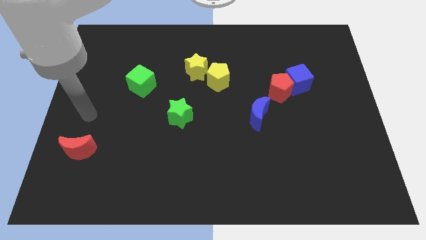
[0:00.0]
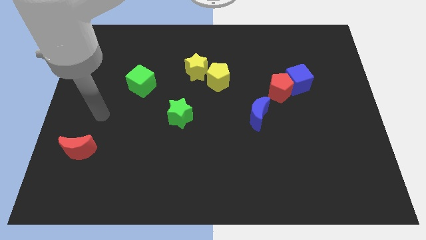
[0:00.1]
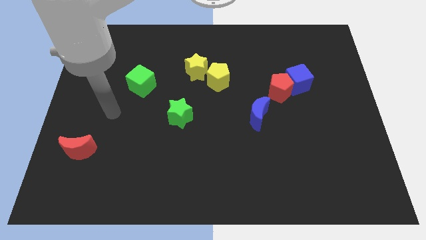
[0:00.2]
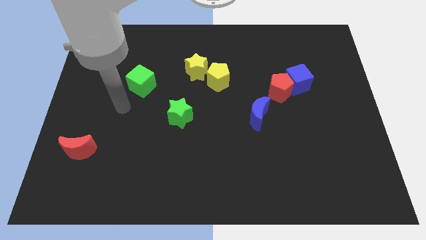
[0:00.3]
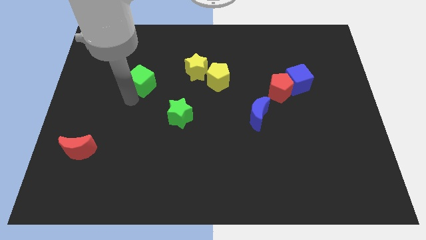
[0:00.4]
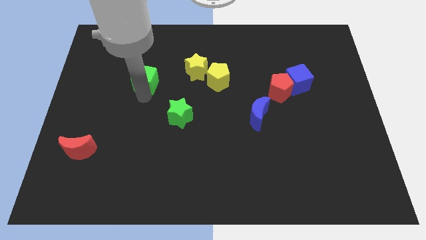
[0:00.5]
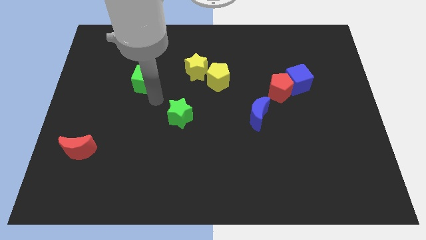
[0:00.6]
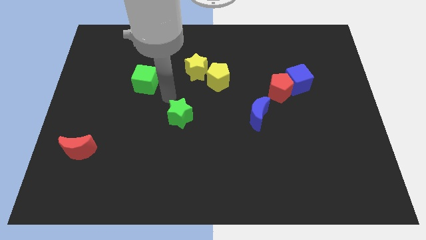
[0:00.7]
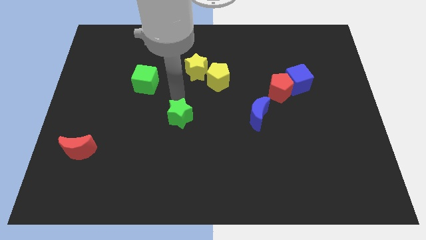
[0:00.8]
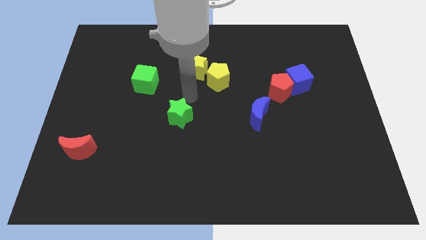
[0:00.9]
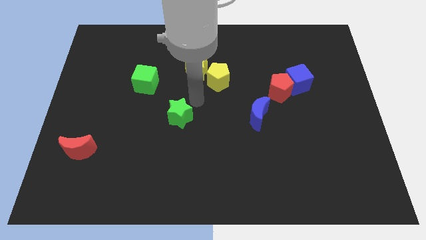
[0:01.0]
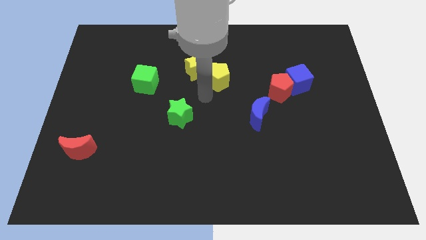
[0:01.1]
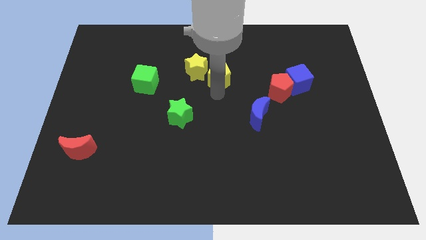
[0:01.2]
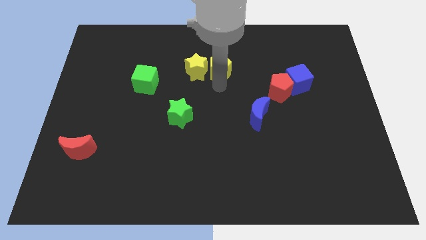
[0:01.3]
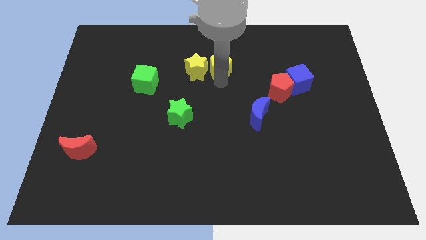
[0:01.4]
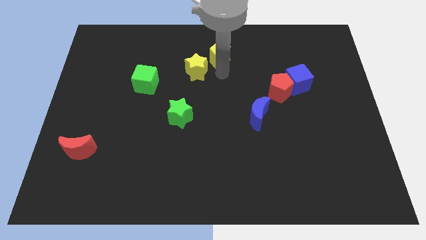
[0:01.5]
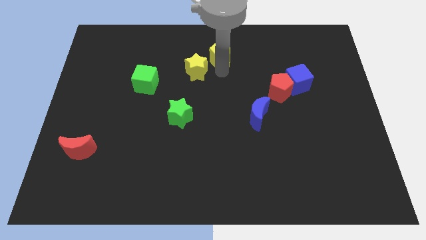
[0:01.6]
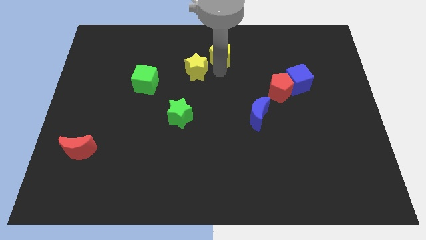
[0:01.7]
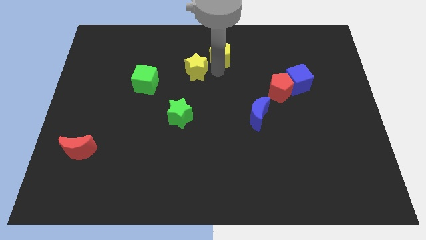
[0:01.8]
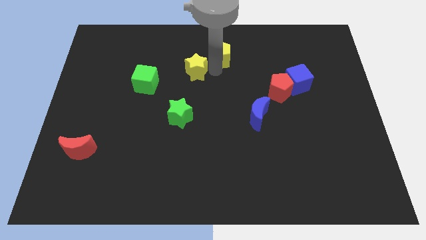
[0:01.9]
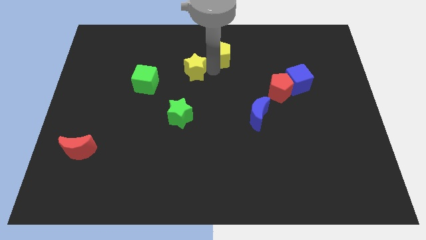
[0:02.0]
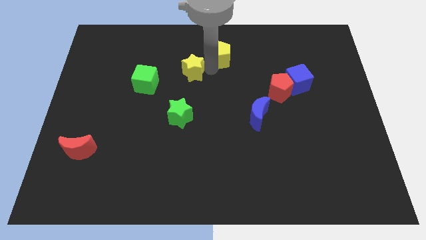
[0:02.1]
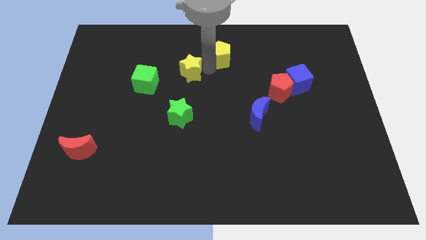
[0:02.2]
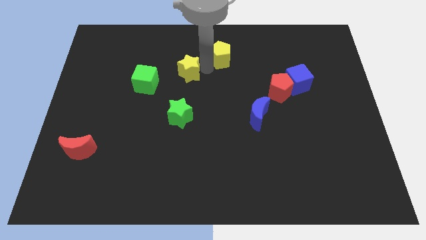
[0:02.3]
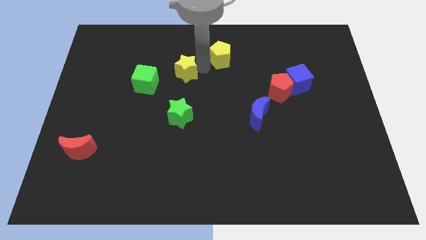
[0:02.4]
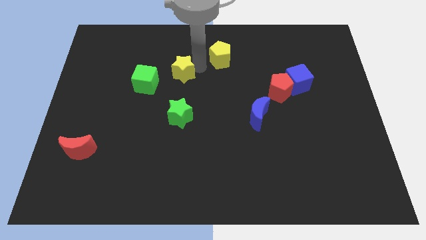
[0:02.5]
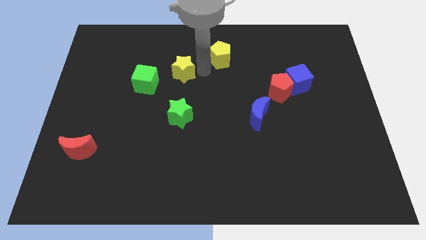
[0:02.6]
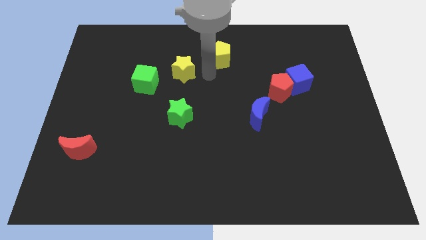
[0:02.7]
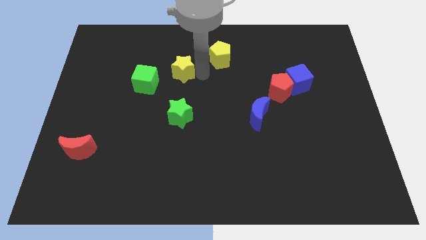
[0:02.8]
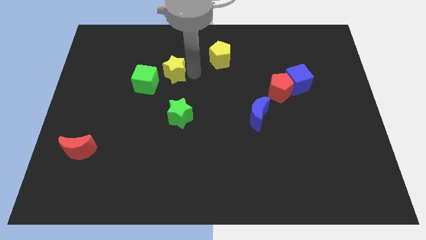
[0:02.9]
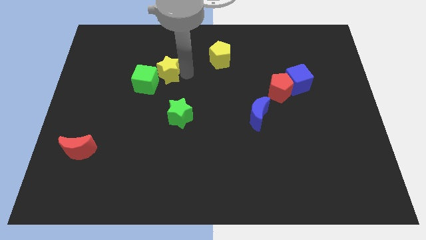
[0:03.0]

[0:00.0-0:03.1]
slide the yellow star to the left somewhat

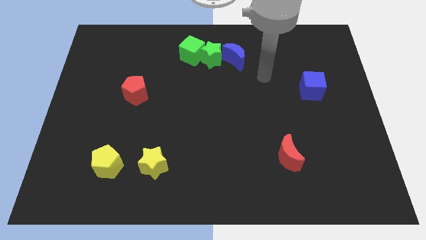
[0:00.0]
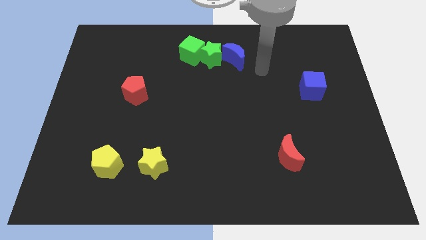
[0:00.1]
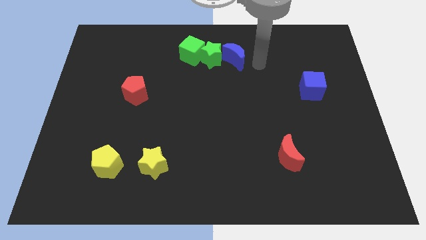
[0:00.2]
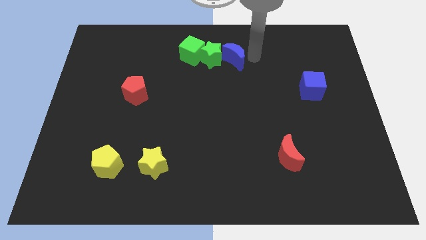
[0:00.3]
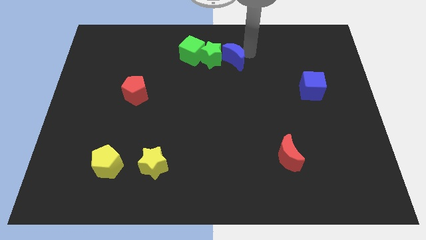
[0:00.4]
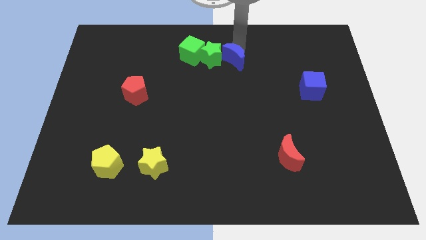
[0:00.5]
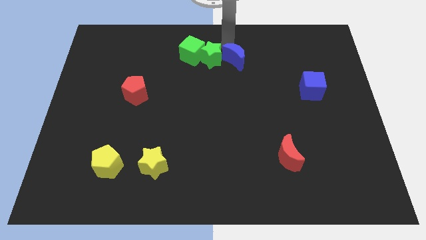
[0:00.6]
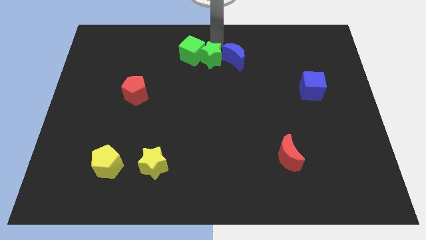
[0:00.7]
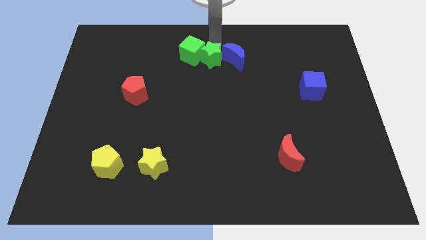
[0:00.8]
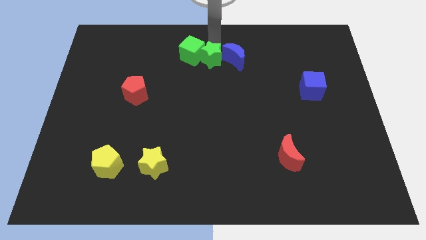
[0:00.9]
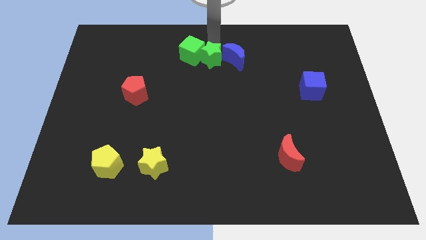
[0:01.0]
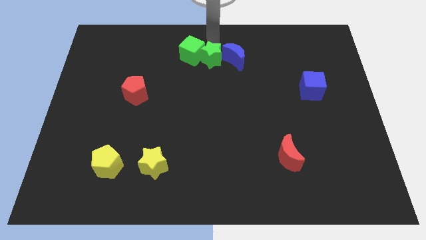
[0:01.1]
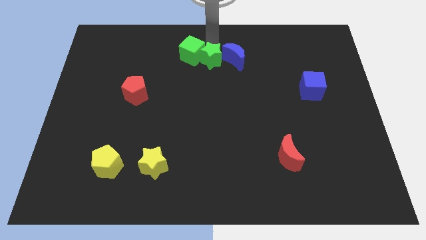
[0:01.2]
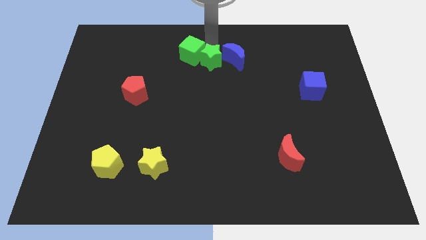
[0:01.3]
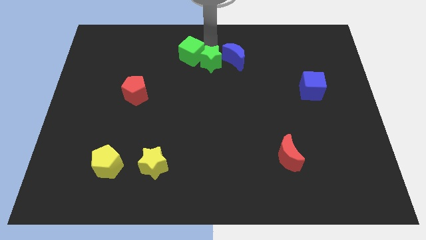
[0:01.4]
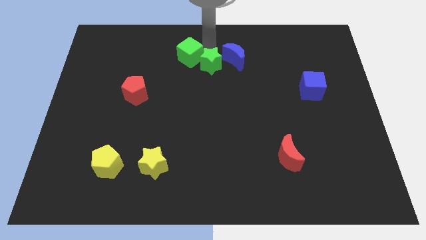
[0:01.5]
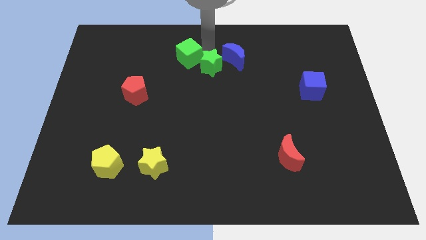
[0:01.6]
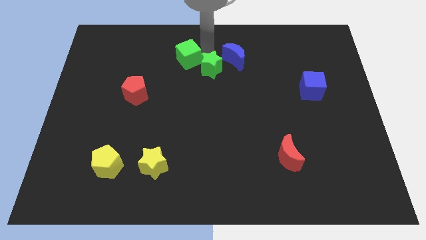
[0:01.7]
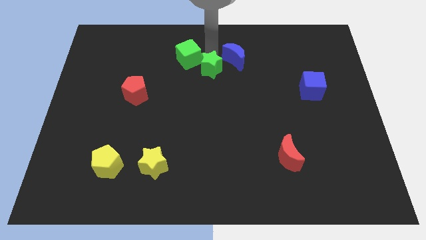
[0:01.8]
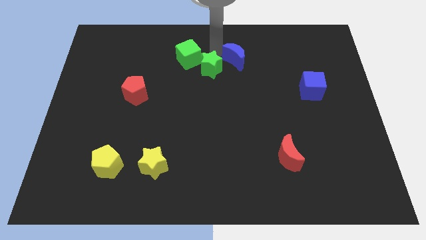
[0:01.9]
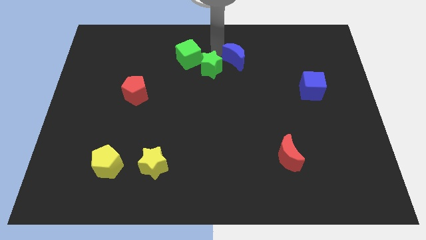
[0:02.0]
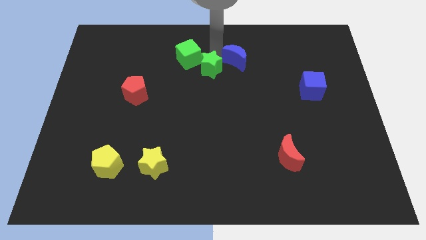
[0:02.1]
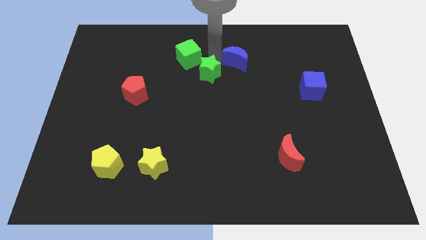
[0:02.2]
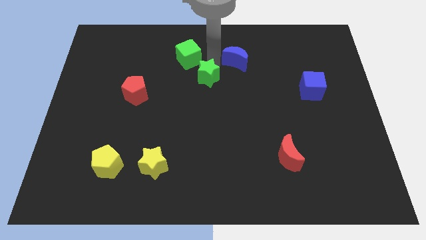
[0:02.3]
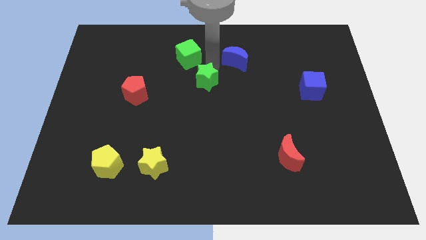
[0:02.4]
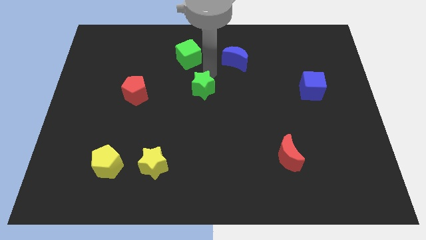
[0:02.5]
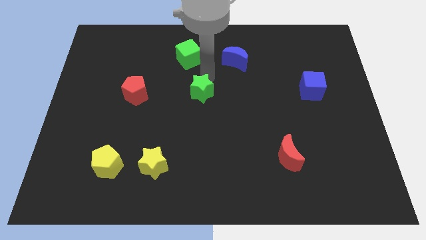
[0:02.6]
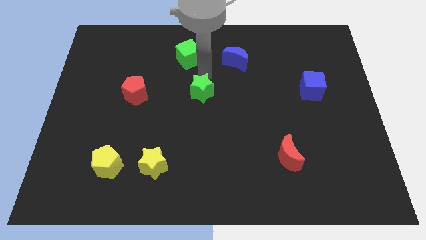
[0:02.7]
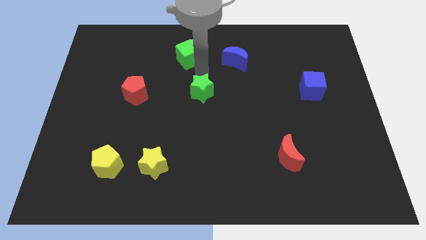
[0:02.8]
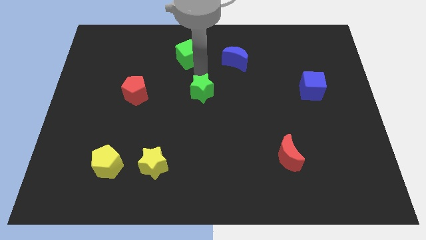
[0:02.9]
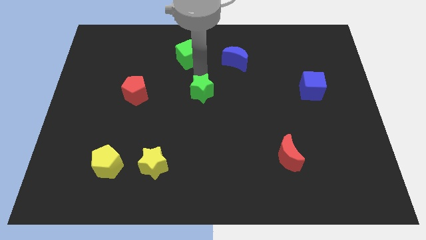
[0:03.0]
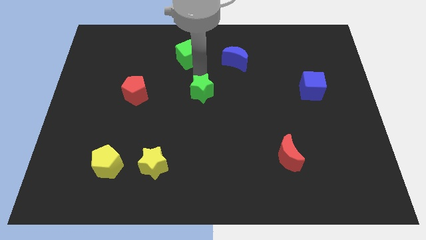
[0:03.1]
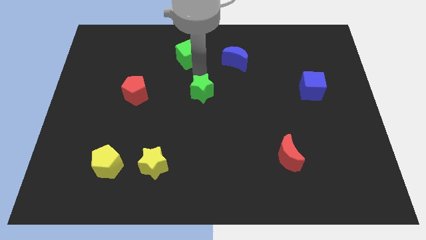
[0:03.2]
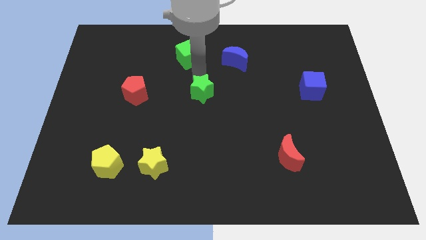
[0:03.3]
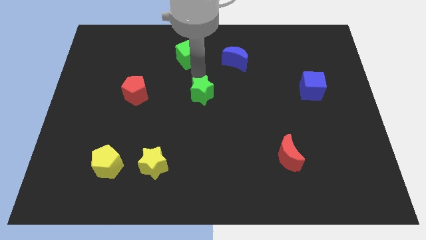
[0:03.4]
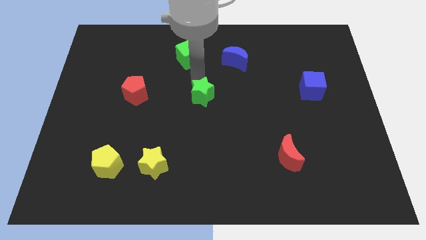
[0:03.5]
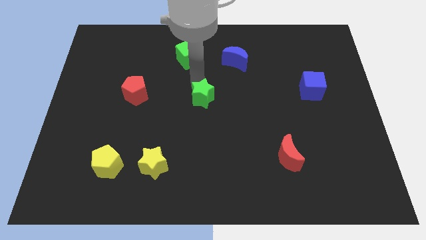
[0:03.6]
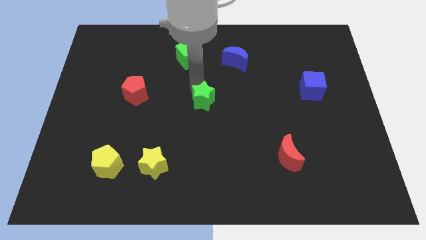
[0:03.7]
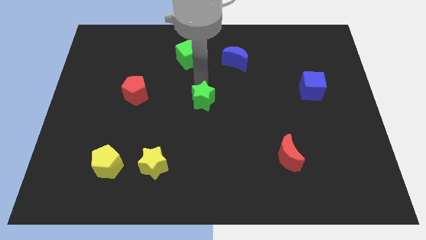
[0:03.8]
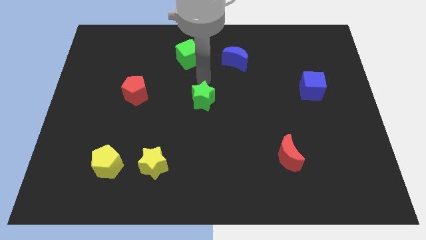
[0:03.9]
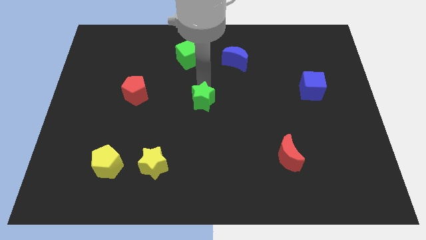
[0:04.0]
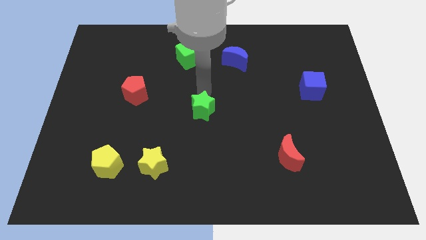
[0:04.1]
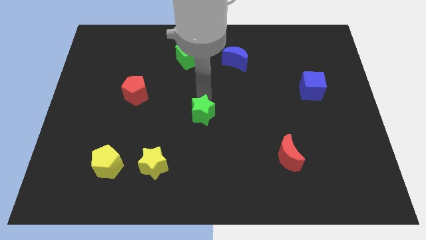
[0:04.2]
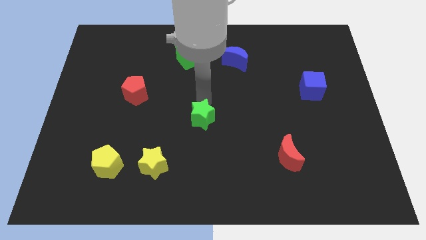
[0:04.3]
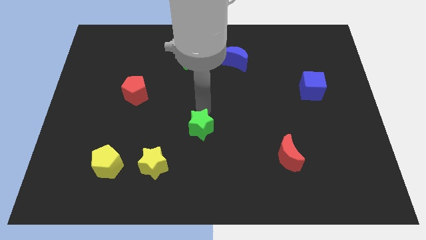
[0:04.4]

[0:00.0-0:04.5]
move the green star down

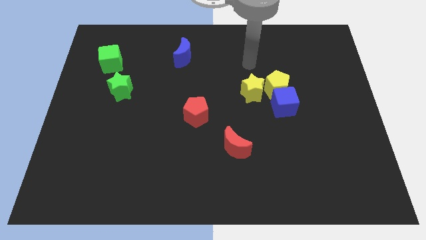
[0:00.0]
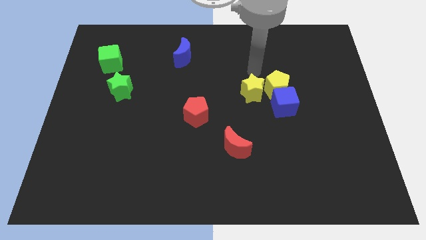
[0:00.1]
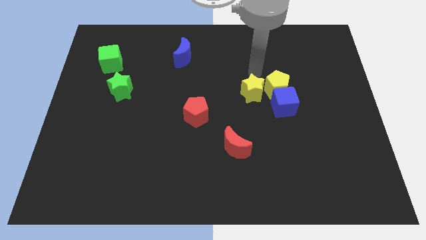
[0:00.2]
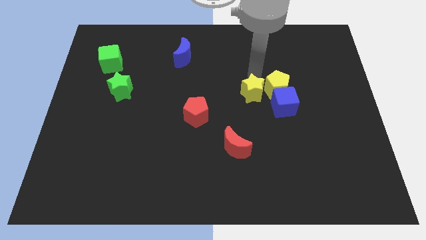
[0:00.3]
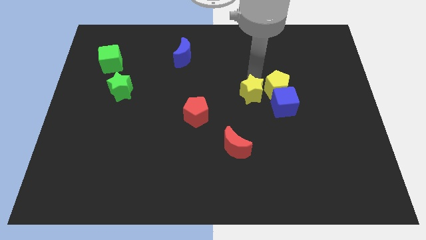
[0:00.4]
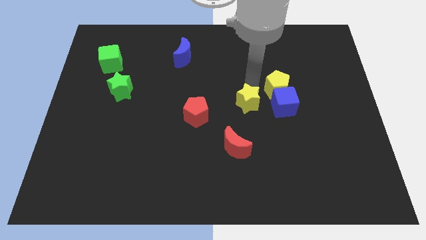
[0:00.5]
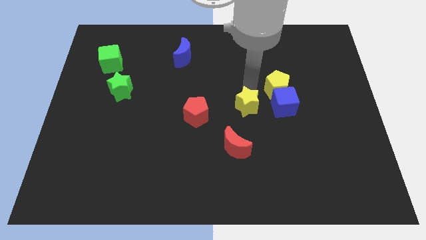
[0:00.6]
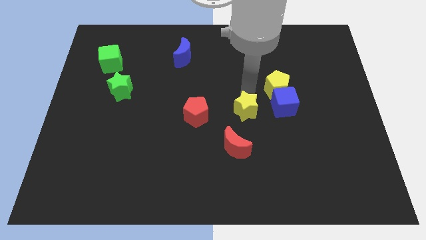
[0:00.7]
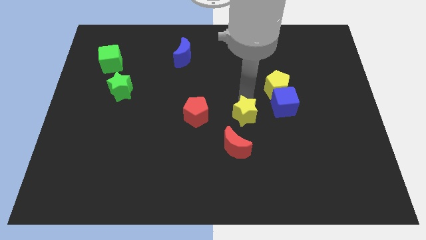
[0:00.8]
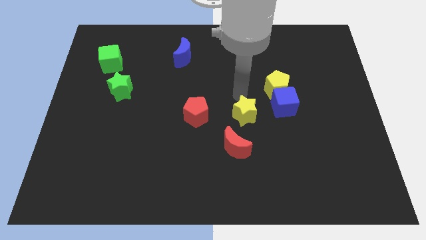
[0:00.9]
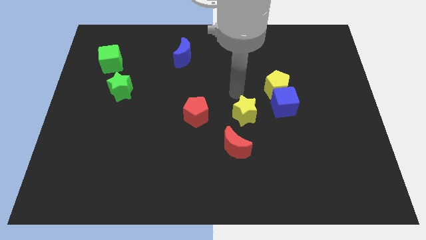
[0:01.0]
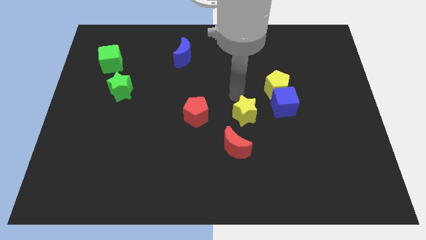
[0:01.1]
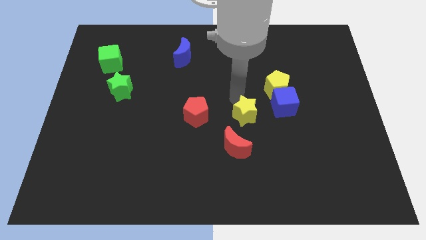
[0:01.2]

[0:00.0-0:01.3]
push the yellow star down a little
